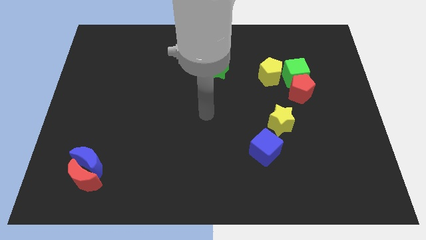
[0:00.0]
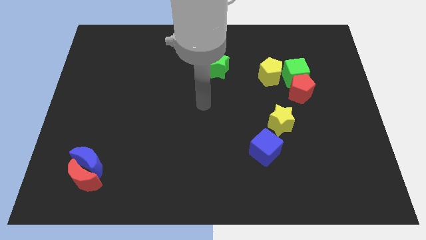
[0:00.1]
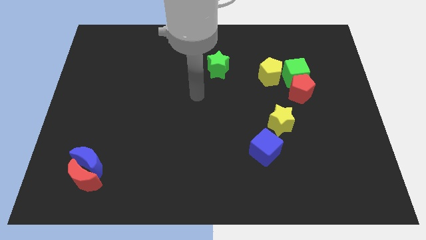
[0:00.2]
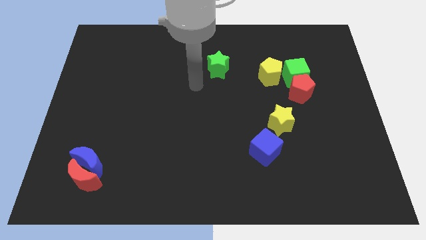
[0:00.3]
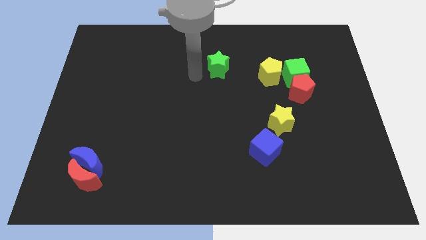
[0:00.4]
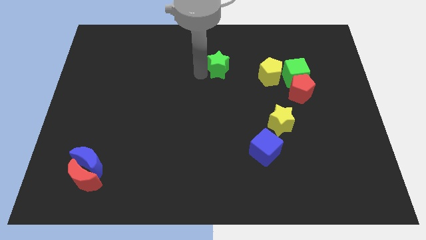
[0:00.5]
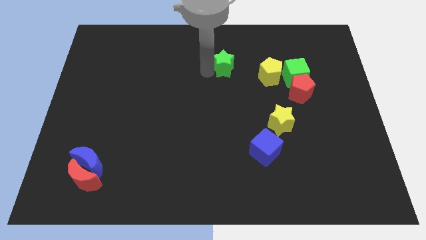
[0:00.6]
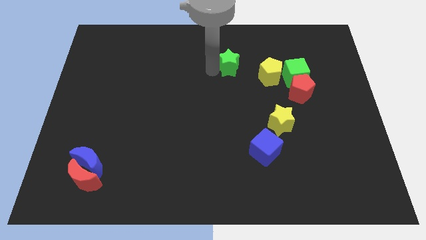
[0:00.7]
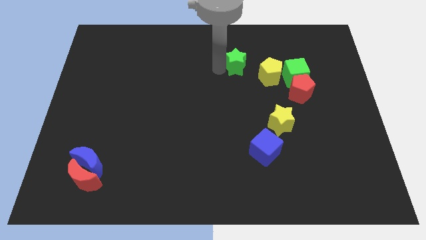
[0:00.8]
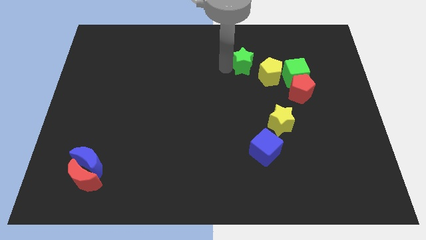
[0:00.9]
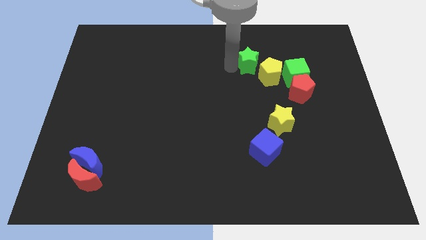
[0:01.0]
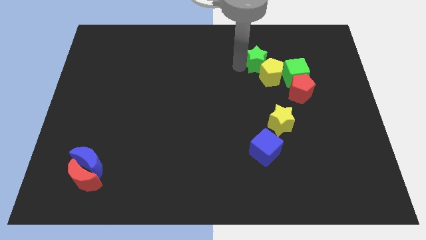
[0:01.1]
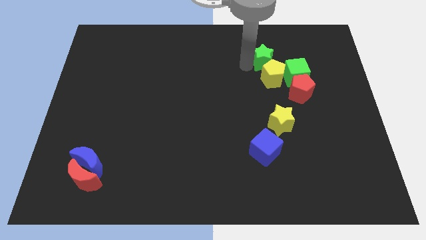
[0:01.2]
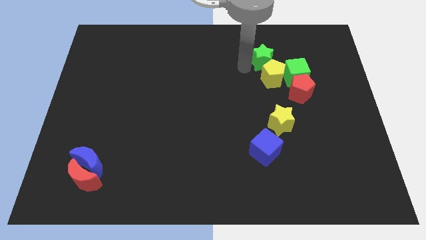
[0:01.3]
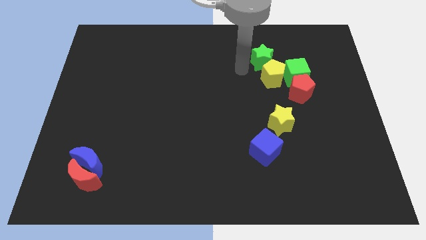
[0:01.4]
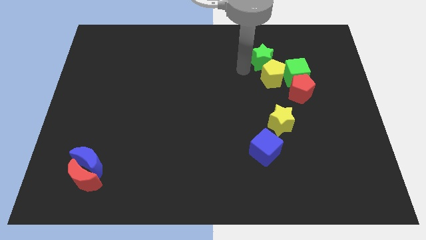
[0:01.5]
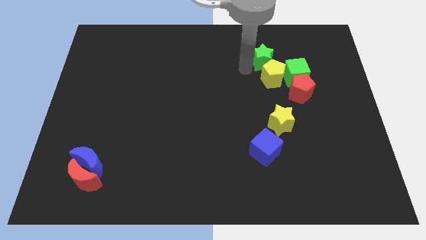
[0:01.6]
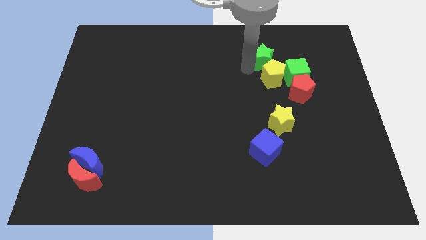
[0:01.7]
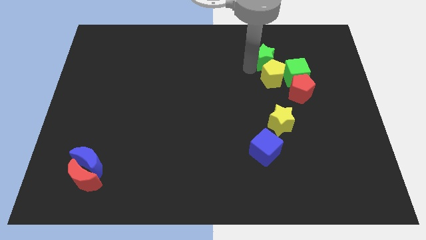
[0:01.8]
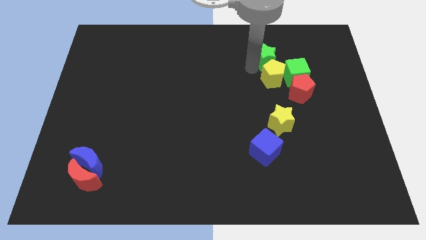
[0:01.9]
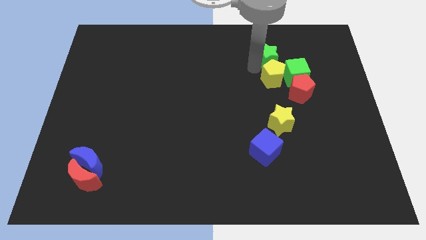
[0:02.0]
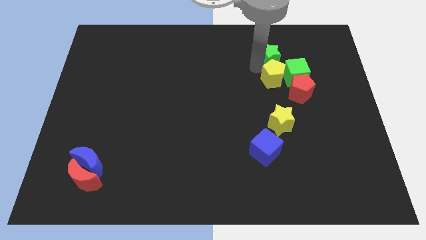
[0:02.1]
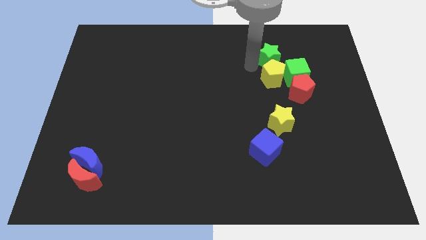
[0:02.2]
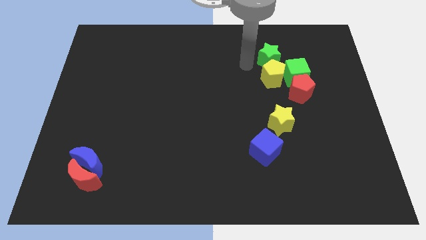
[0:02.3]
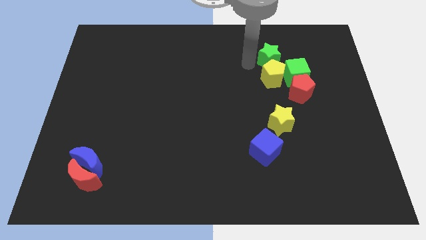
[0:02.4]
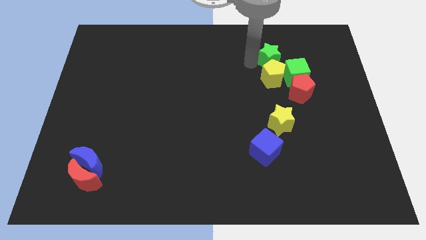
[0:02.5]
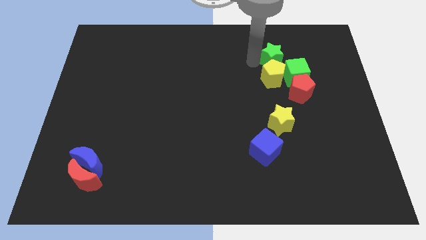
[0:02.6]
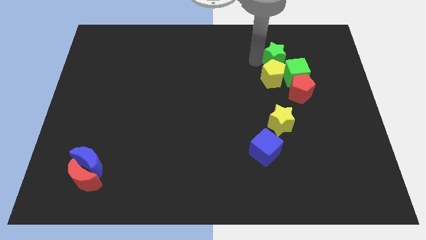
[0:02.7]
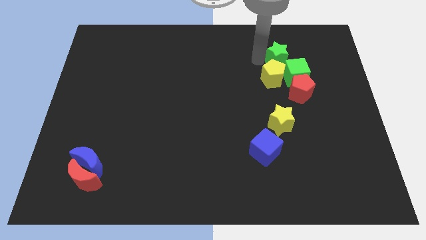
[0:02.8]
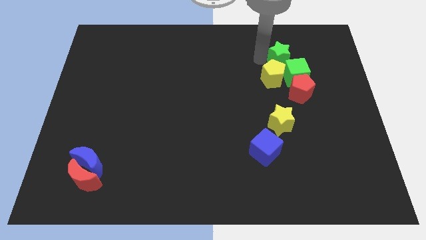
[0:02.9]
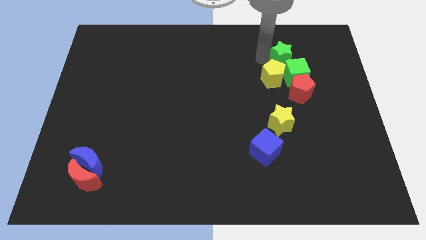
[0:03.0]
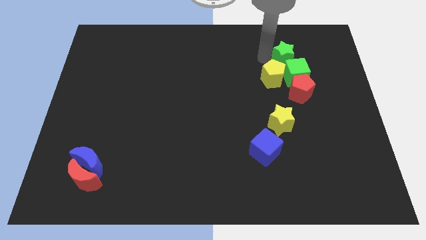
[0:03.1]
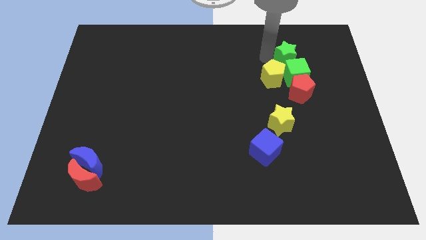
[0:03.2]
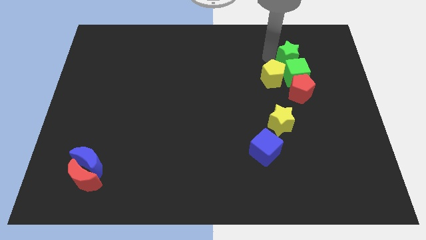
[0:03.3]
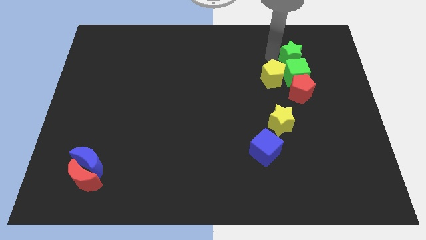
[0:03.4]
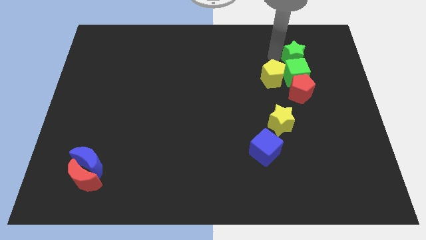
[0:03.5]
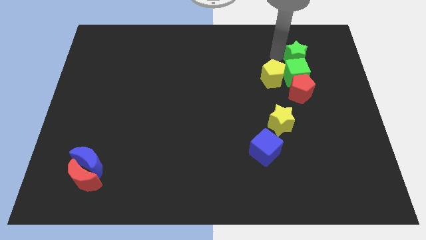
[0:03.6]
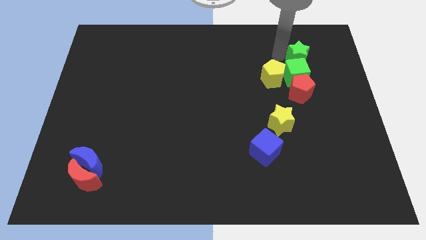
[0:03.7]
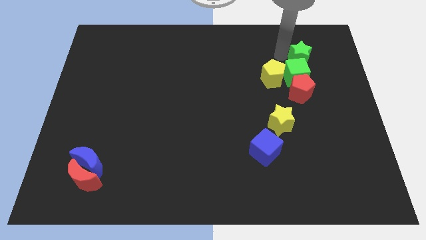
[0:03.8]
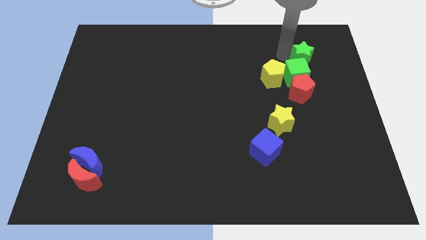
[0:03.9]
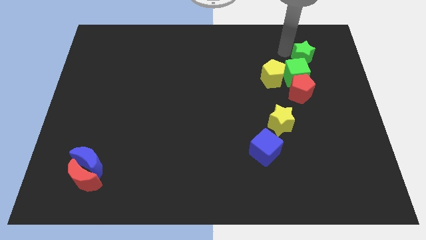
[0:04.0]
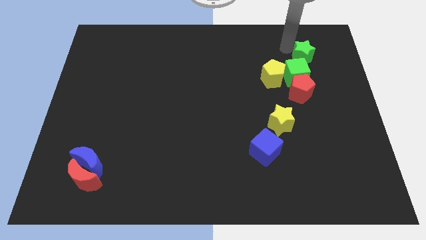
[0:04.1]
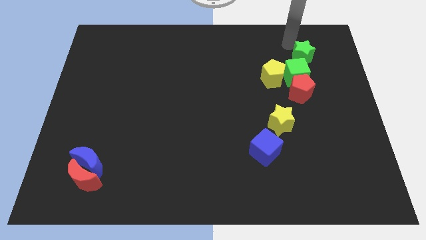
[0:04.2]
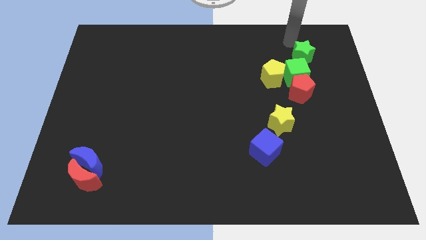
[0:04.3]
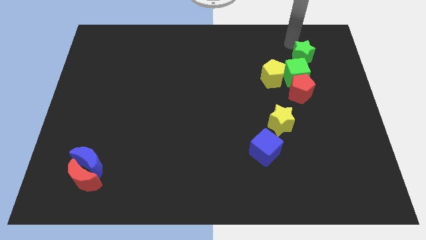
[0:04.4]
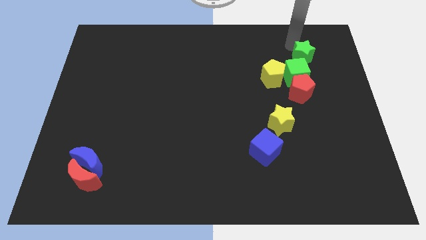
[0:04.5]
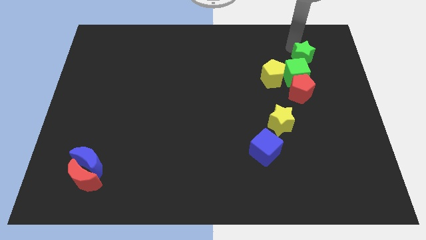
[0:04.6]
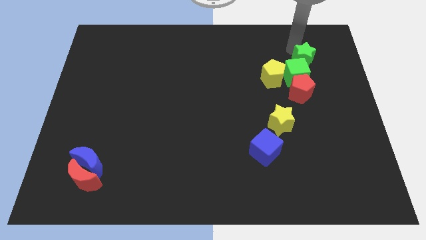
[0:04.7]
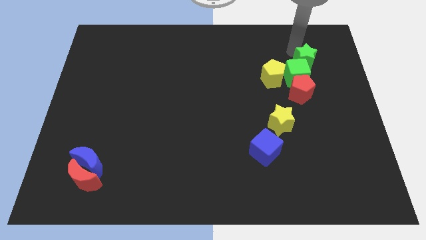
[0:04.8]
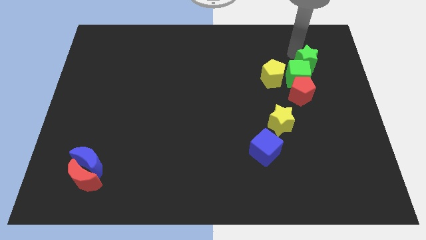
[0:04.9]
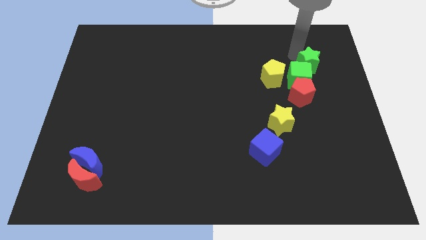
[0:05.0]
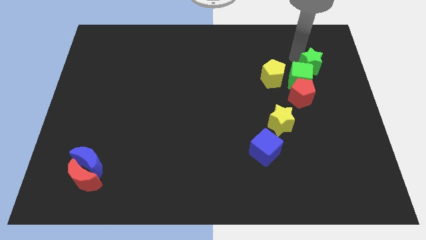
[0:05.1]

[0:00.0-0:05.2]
put the green star diagonally up and to the right of the red pentagon

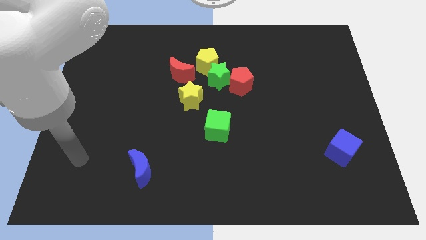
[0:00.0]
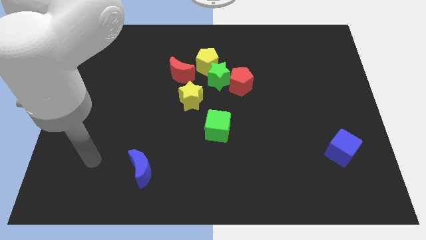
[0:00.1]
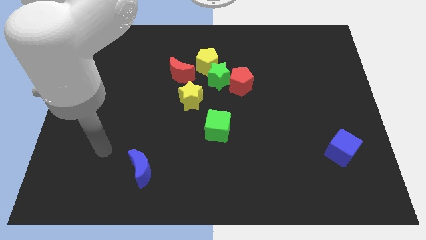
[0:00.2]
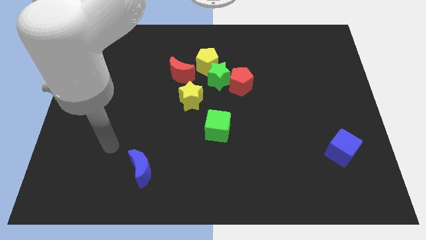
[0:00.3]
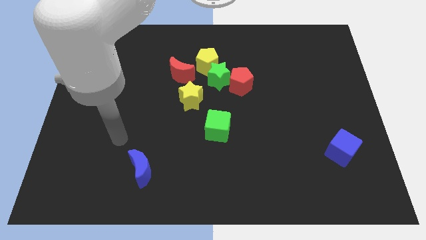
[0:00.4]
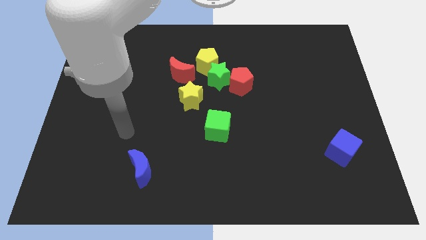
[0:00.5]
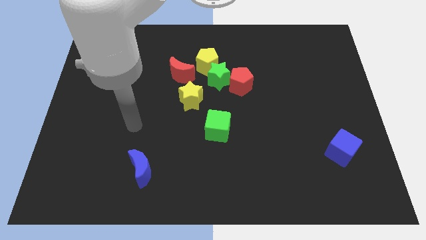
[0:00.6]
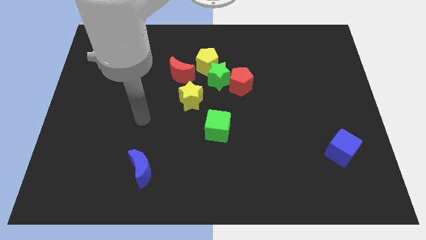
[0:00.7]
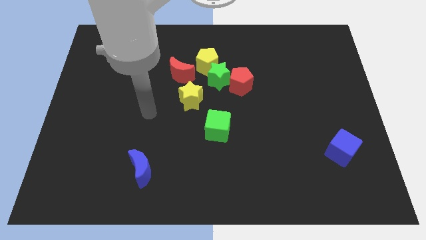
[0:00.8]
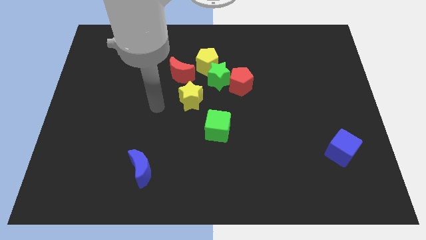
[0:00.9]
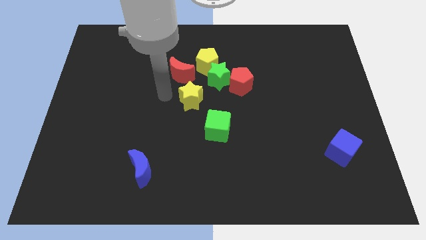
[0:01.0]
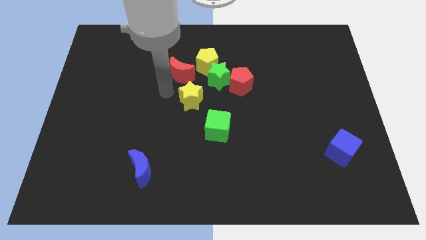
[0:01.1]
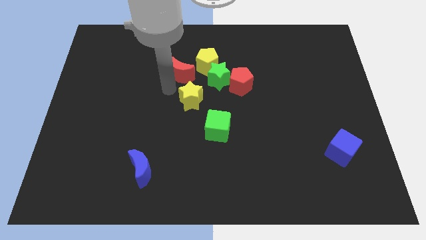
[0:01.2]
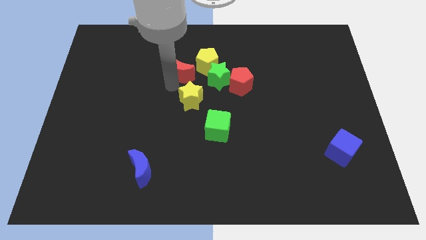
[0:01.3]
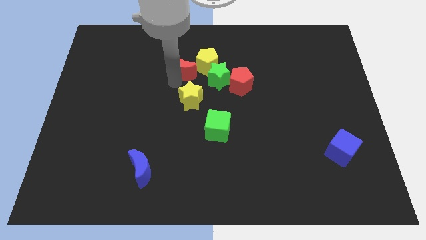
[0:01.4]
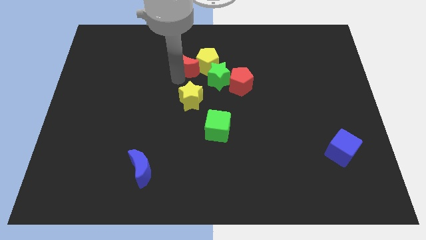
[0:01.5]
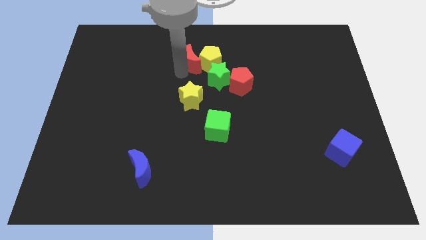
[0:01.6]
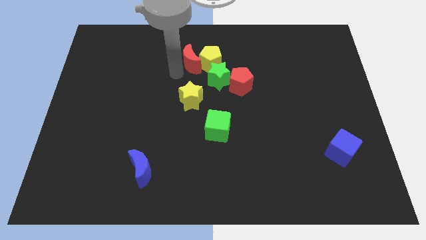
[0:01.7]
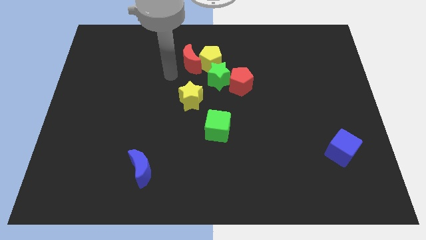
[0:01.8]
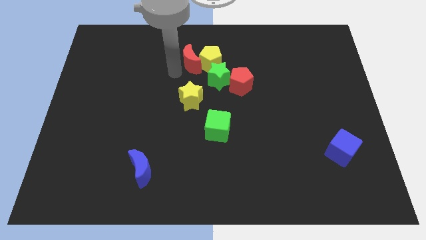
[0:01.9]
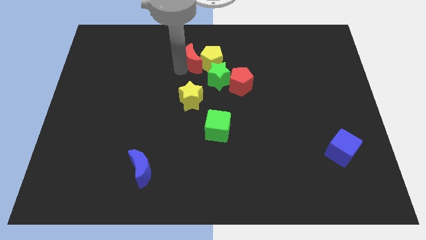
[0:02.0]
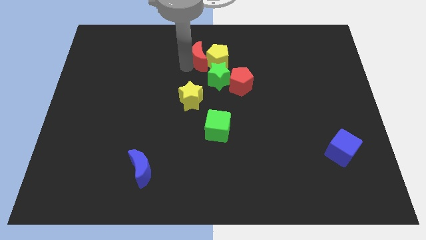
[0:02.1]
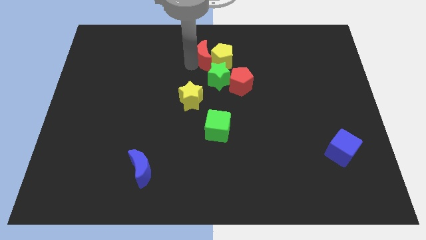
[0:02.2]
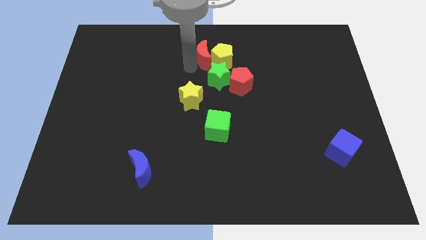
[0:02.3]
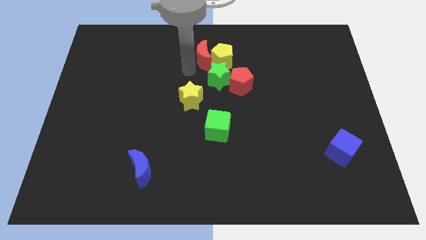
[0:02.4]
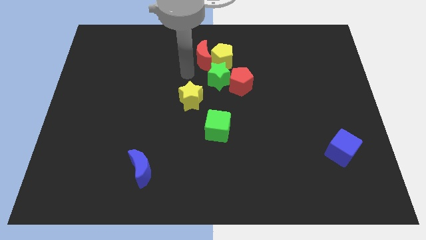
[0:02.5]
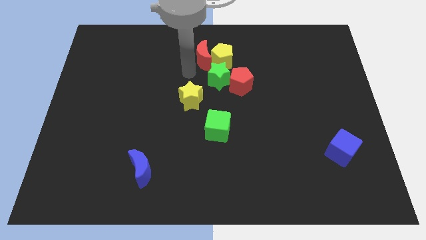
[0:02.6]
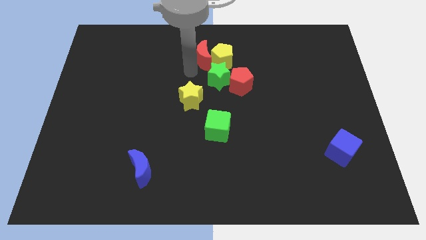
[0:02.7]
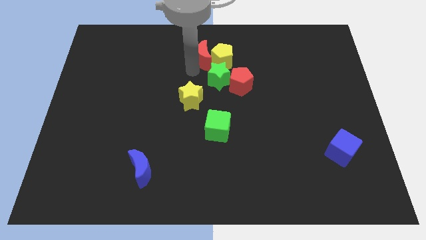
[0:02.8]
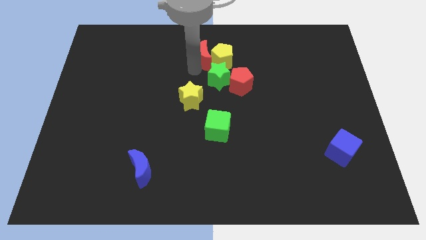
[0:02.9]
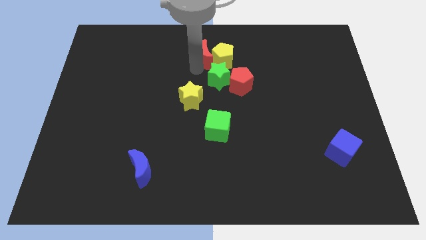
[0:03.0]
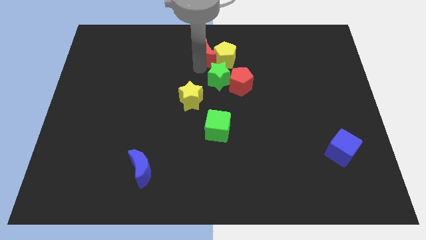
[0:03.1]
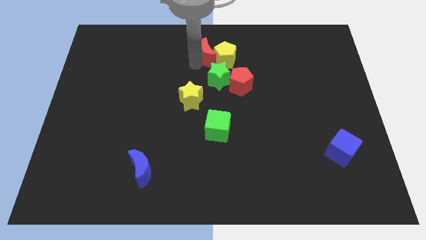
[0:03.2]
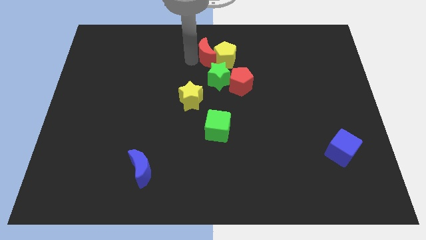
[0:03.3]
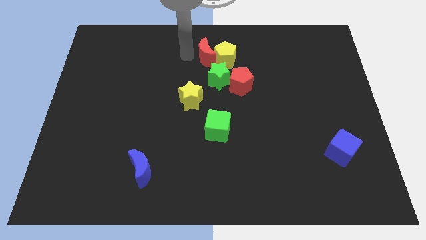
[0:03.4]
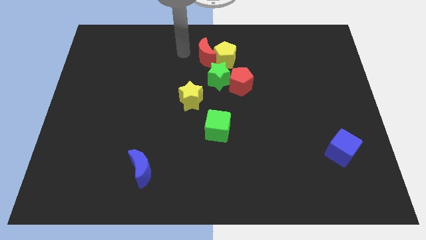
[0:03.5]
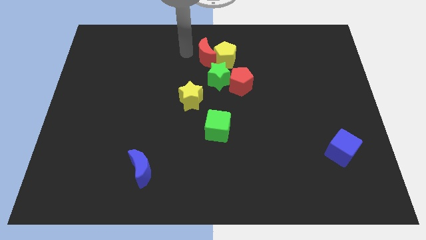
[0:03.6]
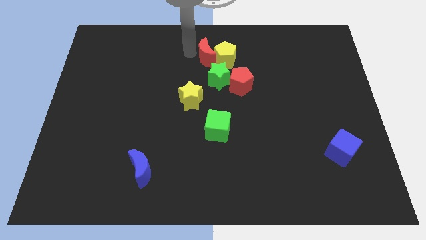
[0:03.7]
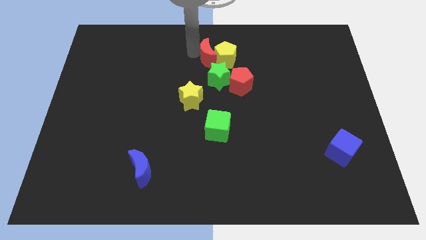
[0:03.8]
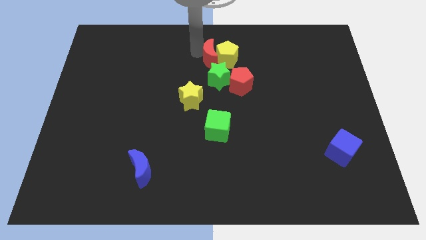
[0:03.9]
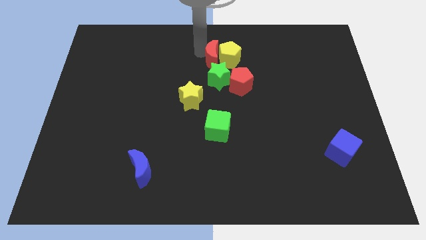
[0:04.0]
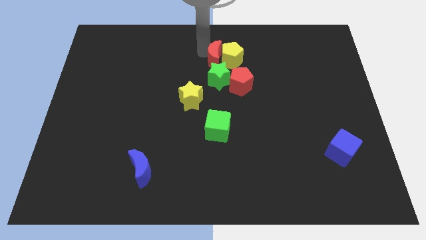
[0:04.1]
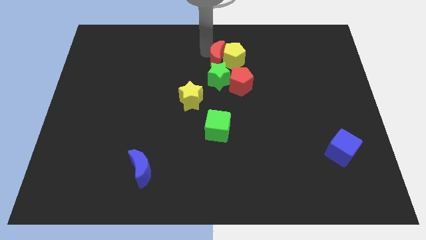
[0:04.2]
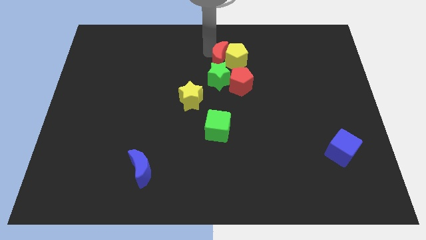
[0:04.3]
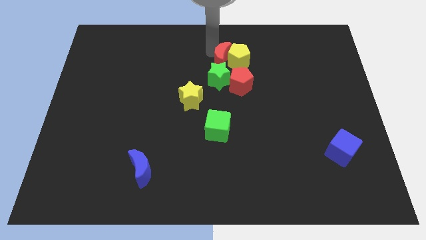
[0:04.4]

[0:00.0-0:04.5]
slide the red moon diagonally up and to the right of the green star
